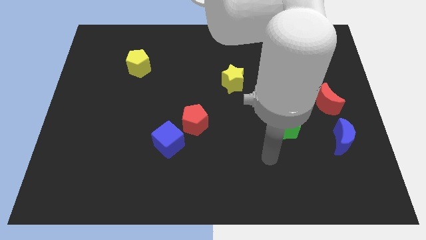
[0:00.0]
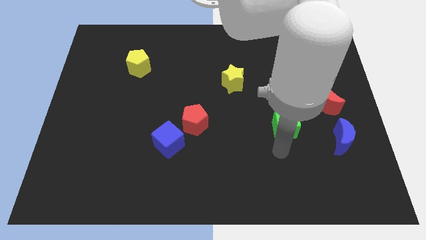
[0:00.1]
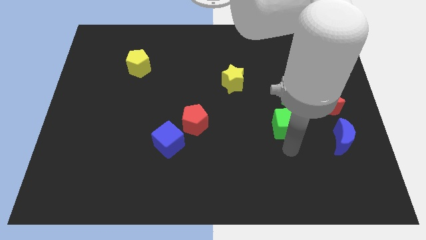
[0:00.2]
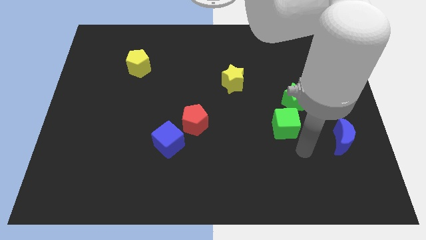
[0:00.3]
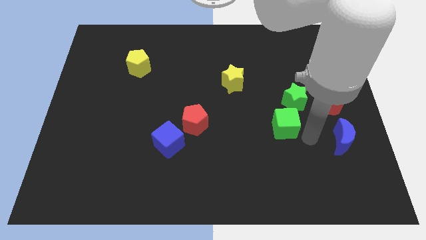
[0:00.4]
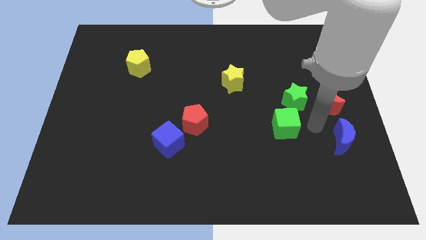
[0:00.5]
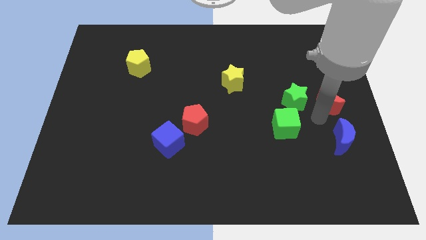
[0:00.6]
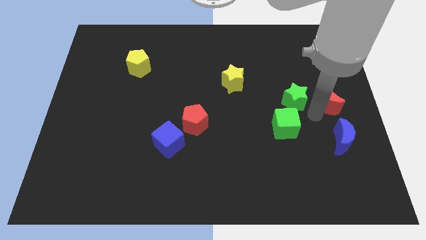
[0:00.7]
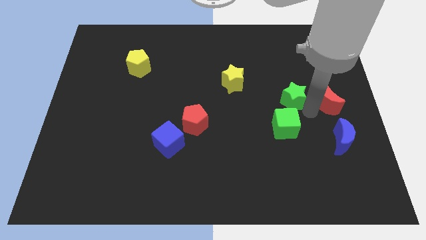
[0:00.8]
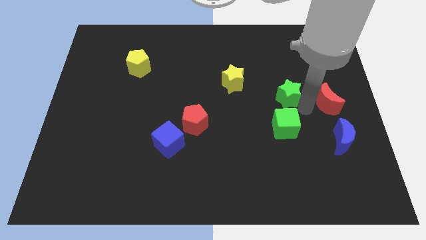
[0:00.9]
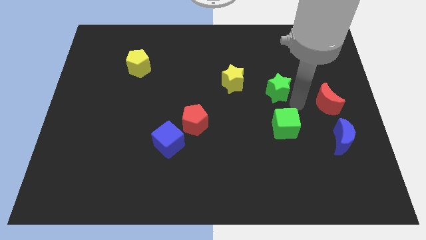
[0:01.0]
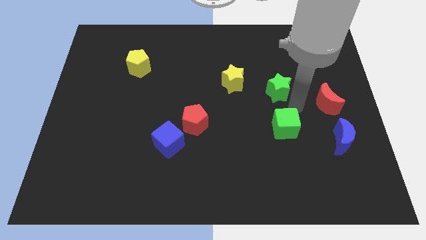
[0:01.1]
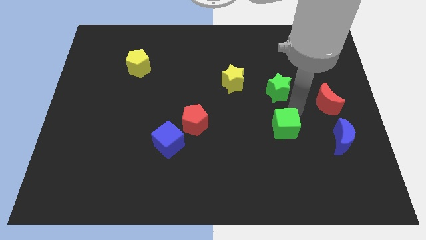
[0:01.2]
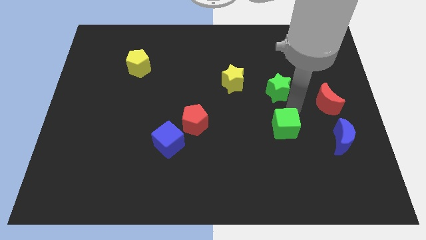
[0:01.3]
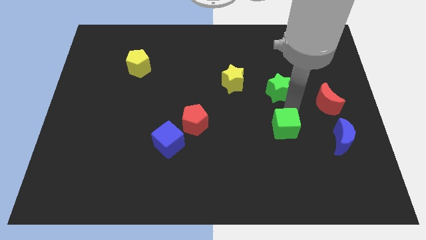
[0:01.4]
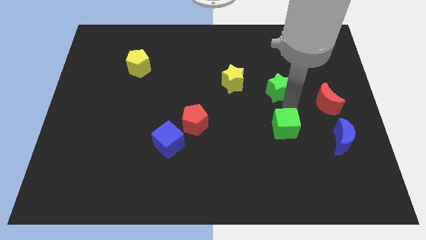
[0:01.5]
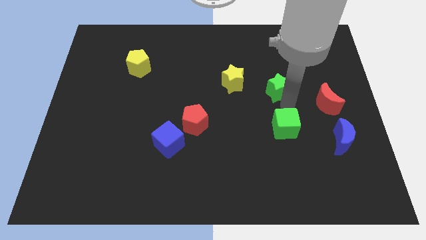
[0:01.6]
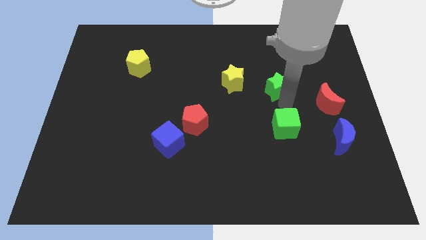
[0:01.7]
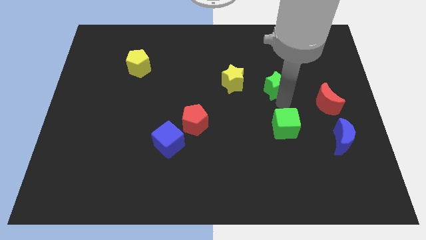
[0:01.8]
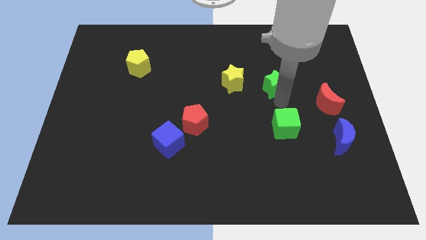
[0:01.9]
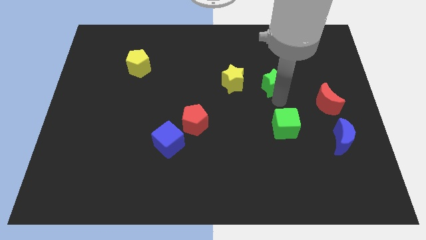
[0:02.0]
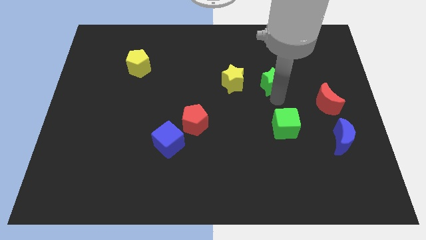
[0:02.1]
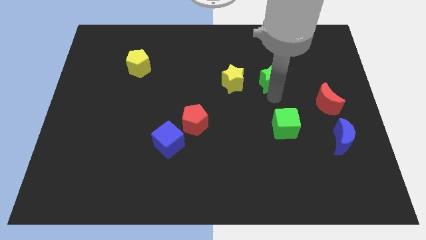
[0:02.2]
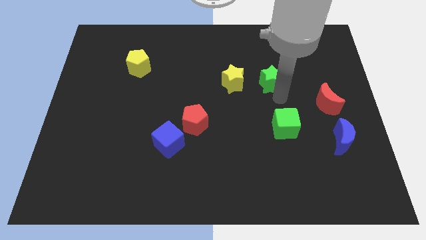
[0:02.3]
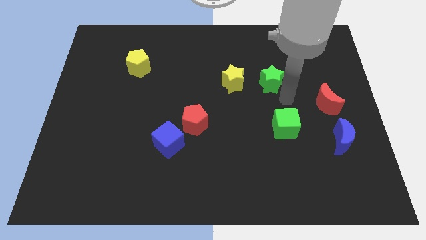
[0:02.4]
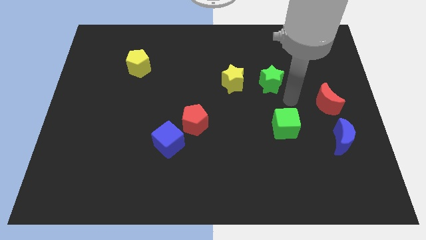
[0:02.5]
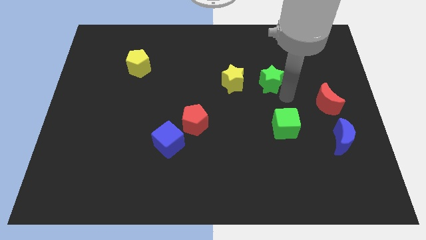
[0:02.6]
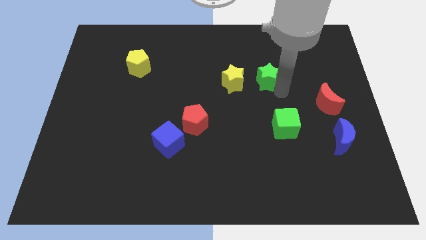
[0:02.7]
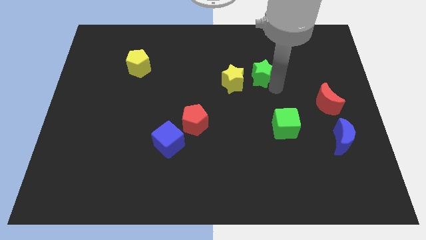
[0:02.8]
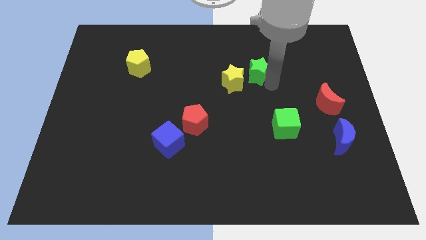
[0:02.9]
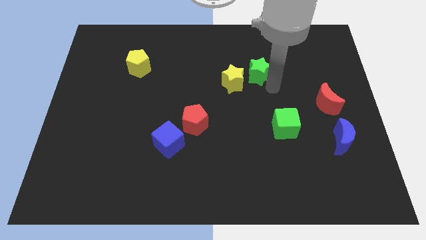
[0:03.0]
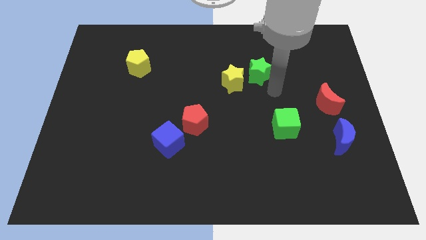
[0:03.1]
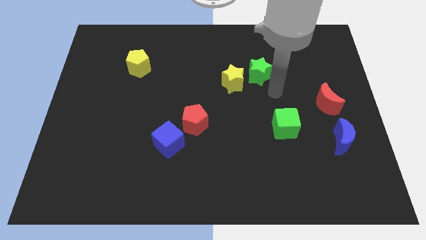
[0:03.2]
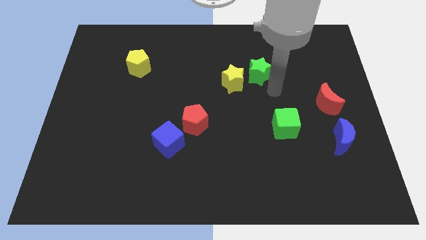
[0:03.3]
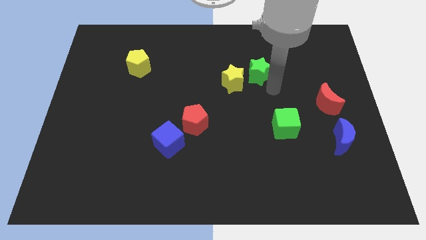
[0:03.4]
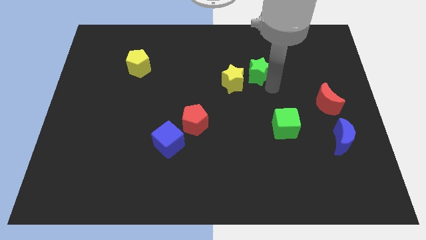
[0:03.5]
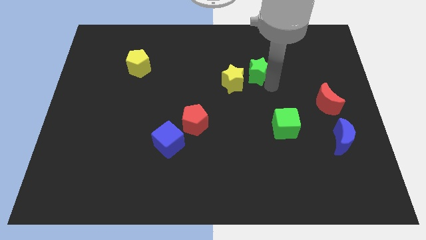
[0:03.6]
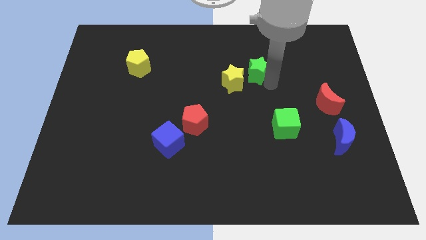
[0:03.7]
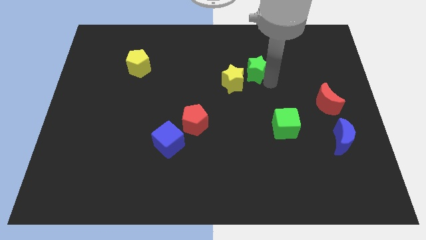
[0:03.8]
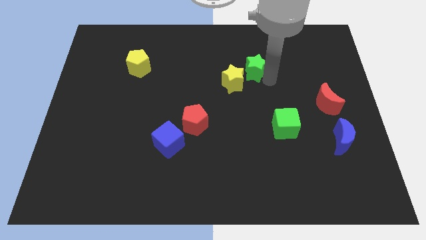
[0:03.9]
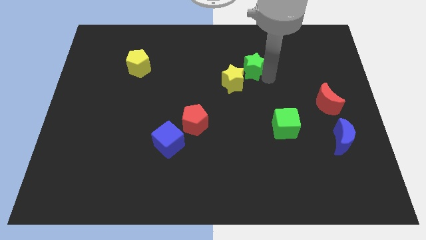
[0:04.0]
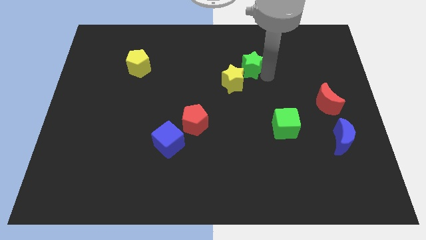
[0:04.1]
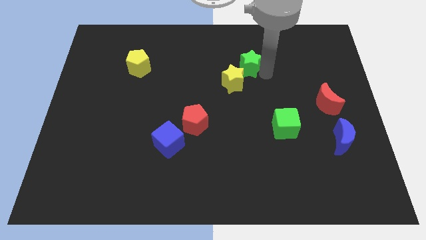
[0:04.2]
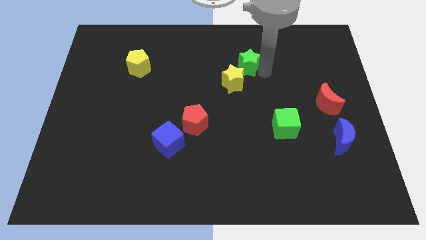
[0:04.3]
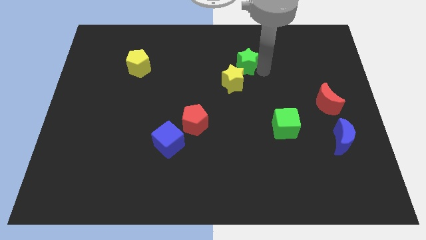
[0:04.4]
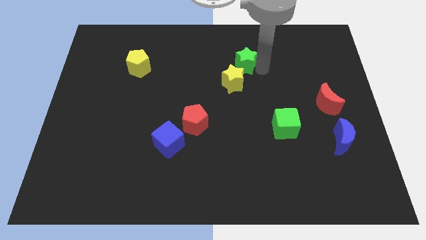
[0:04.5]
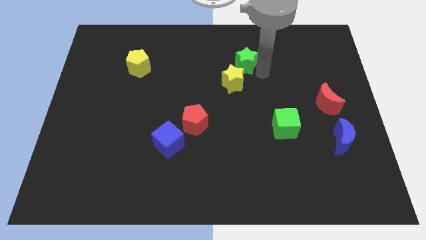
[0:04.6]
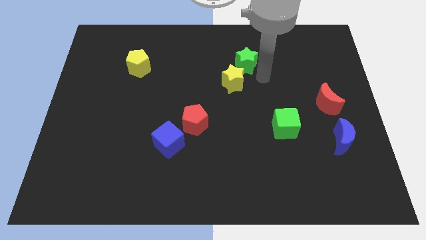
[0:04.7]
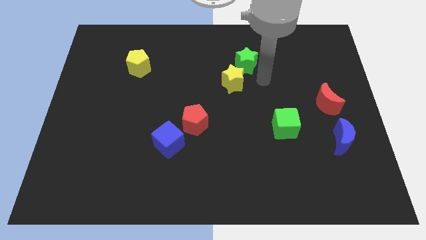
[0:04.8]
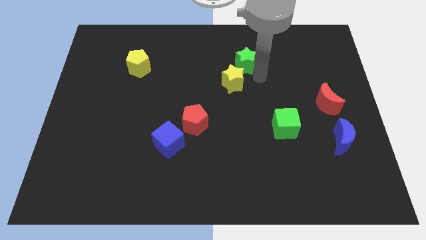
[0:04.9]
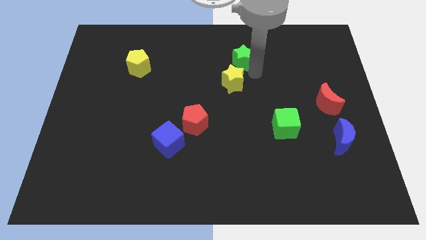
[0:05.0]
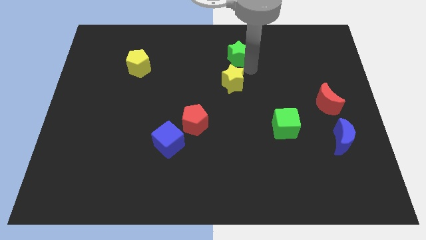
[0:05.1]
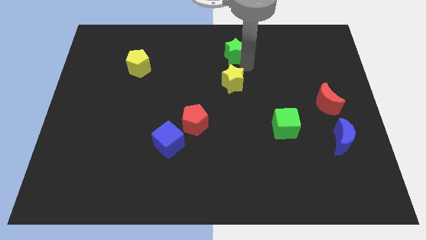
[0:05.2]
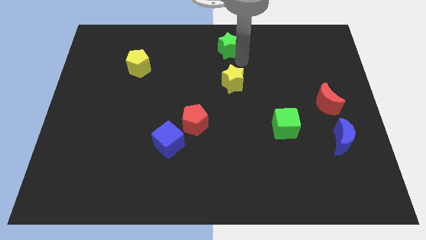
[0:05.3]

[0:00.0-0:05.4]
push the green star to the top

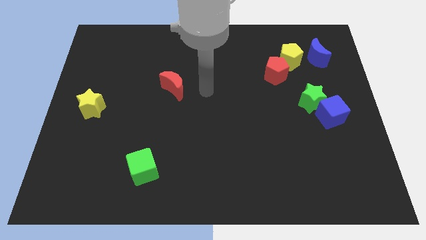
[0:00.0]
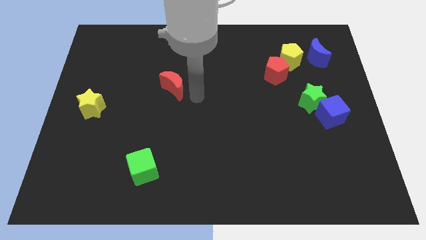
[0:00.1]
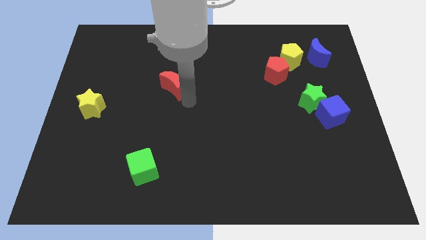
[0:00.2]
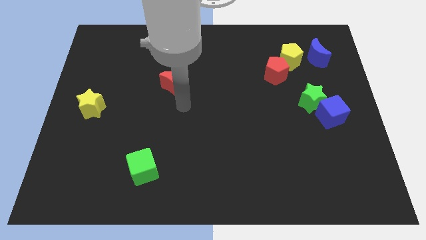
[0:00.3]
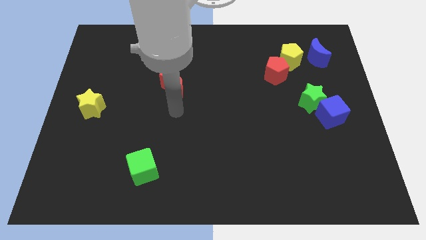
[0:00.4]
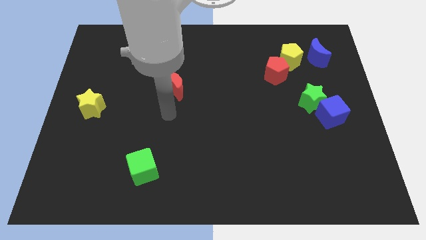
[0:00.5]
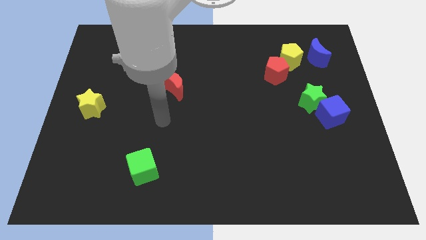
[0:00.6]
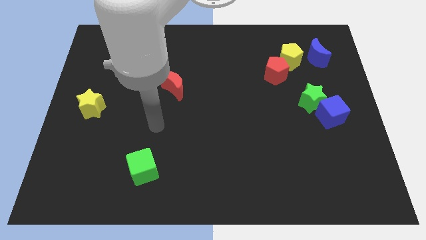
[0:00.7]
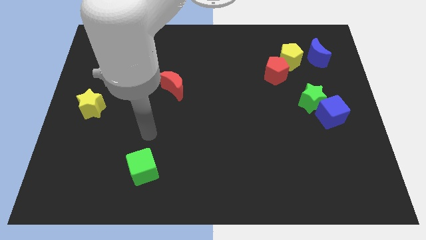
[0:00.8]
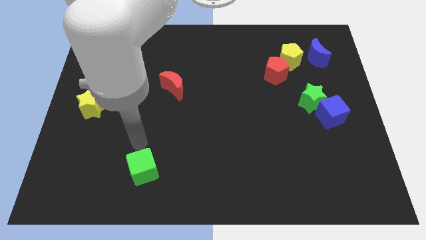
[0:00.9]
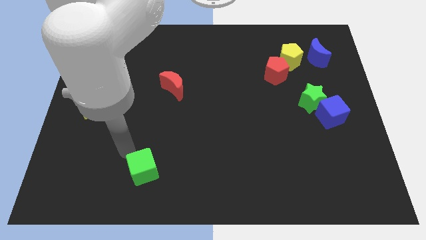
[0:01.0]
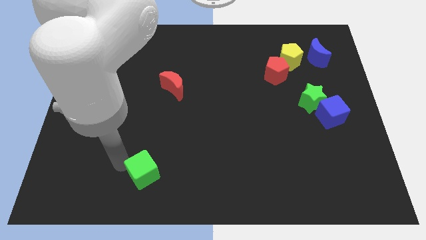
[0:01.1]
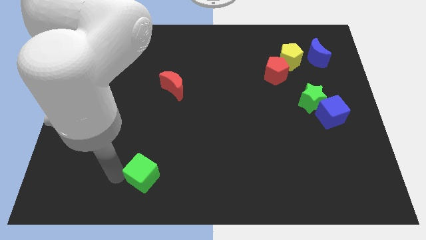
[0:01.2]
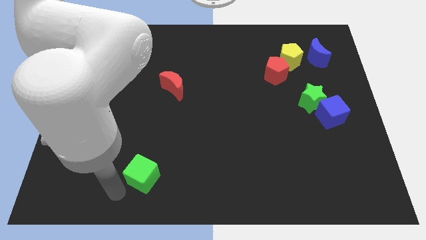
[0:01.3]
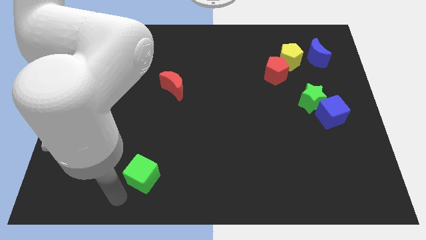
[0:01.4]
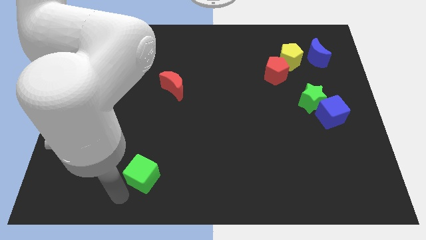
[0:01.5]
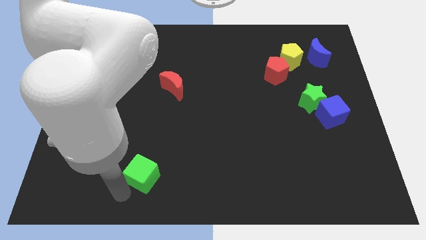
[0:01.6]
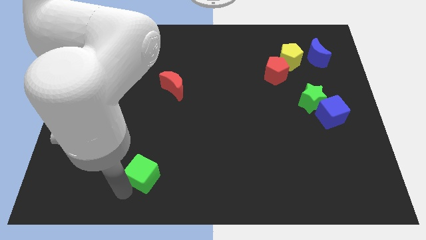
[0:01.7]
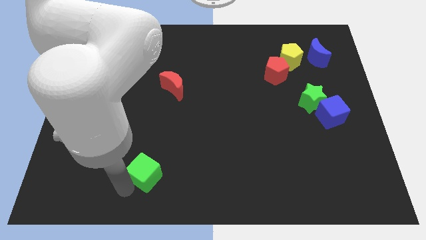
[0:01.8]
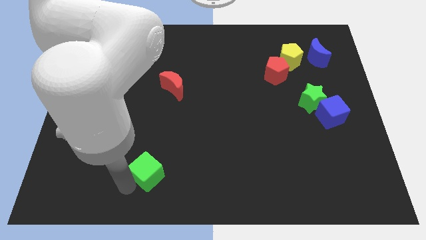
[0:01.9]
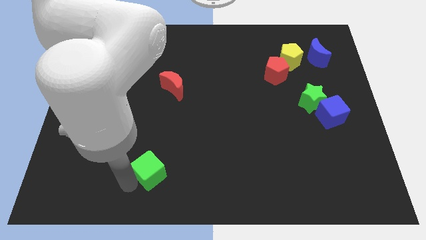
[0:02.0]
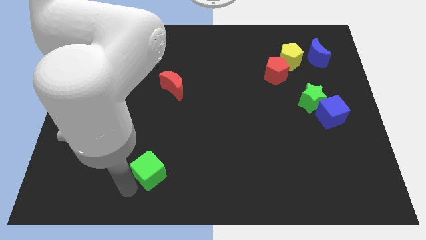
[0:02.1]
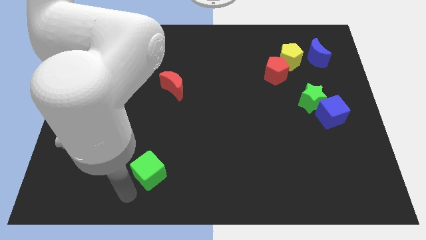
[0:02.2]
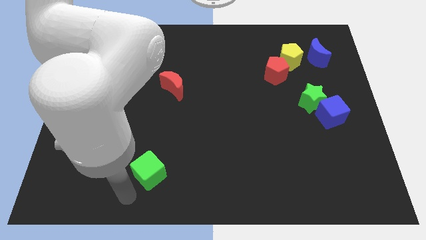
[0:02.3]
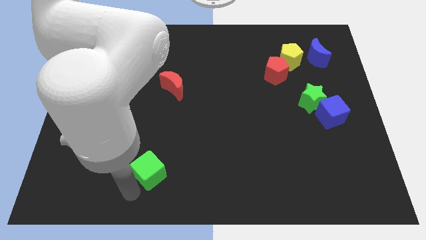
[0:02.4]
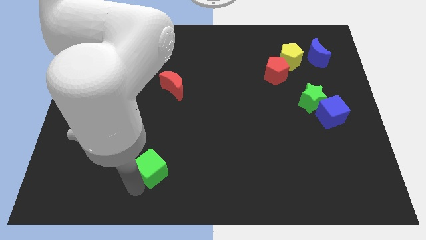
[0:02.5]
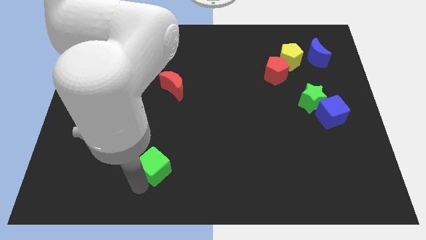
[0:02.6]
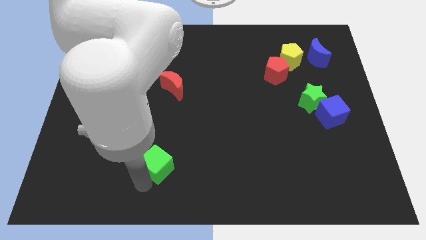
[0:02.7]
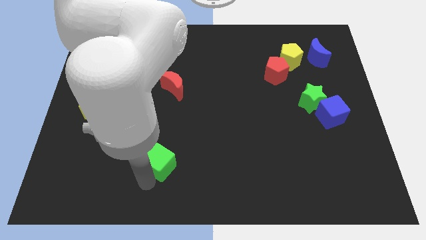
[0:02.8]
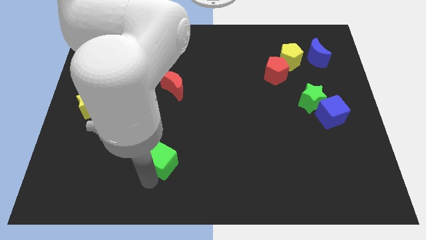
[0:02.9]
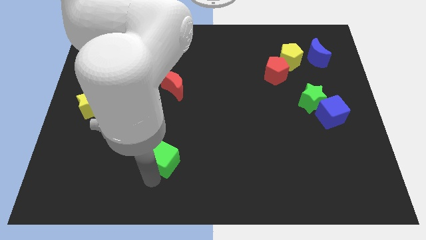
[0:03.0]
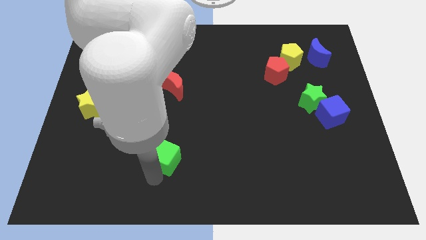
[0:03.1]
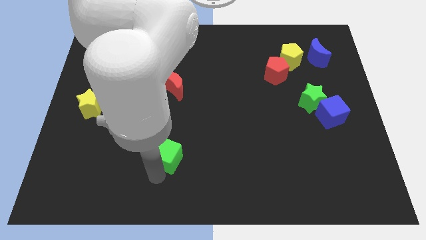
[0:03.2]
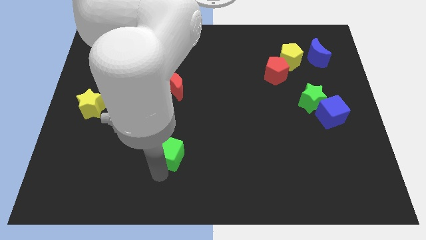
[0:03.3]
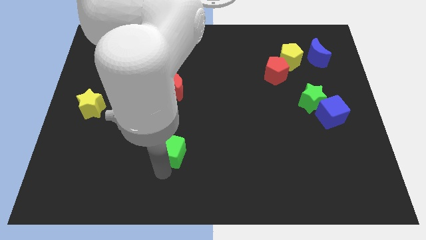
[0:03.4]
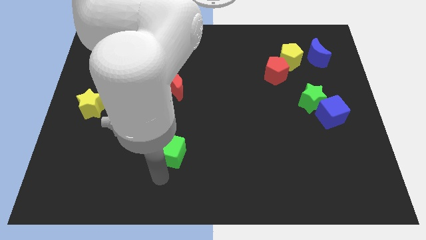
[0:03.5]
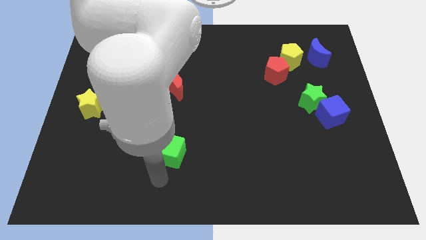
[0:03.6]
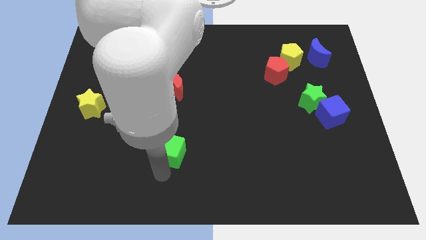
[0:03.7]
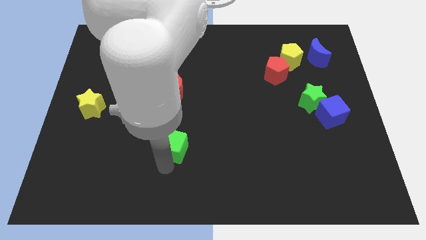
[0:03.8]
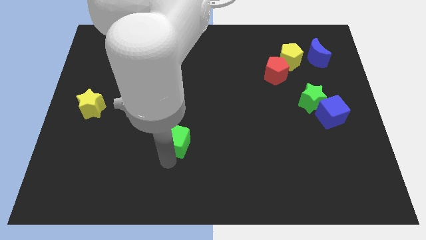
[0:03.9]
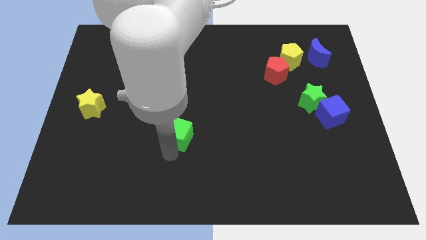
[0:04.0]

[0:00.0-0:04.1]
move the green cube to the middle of the board
